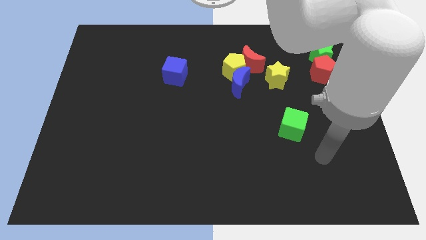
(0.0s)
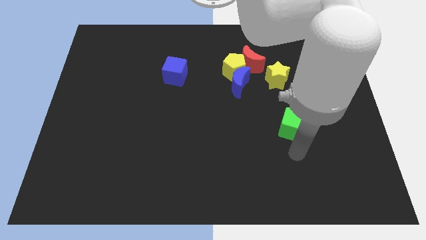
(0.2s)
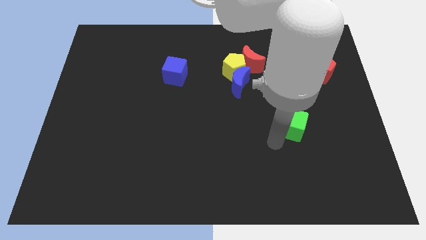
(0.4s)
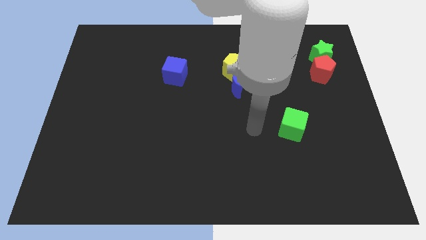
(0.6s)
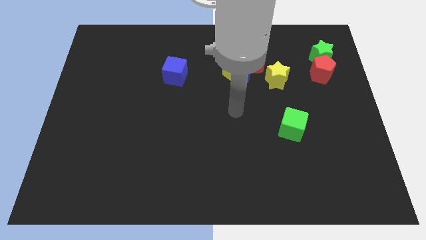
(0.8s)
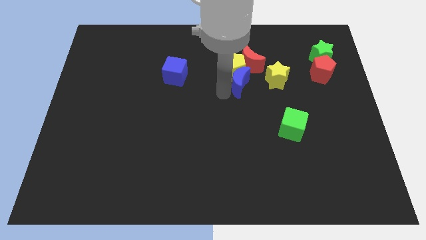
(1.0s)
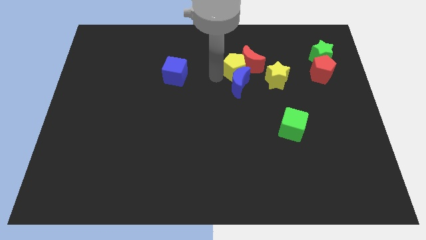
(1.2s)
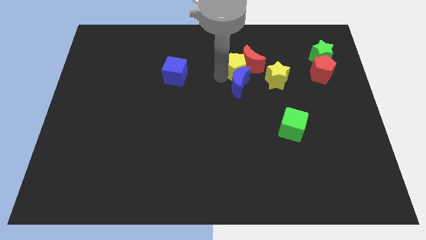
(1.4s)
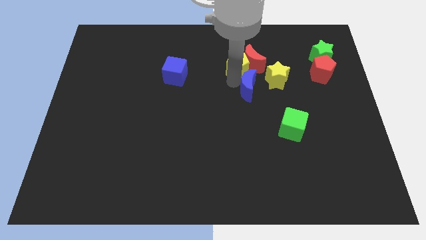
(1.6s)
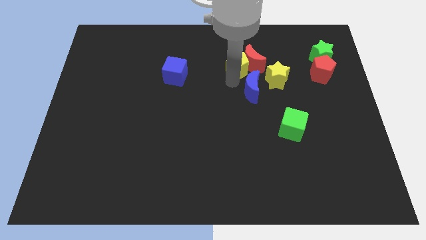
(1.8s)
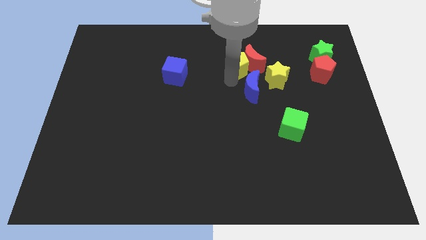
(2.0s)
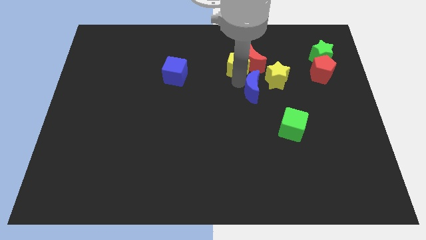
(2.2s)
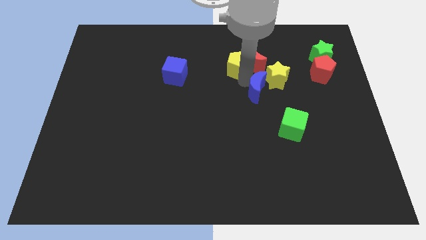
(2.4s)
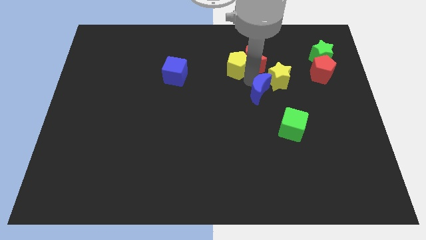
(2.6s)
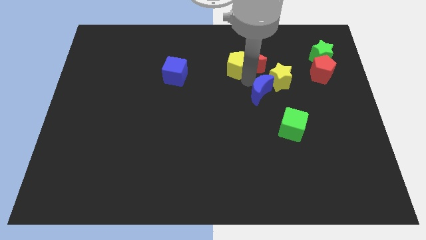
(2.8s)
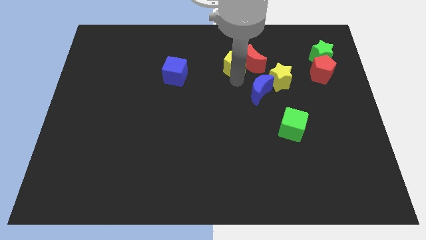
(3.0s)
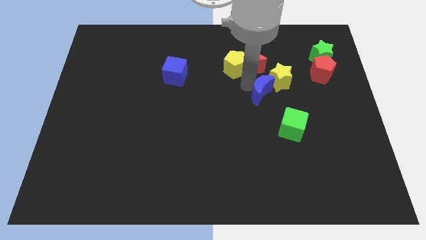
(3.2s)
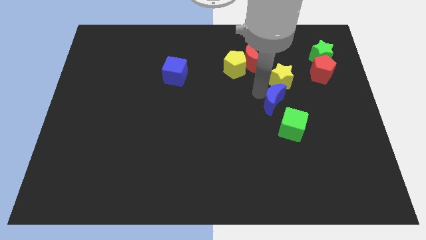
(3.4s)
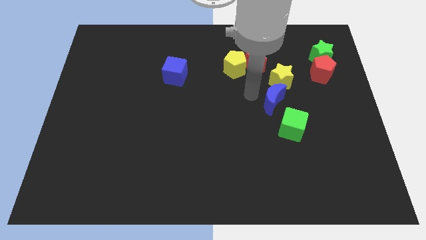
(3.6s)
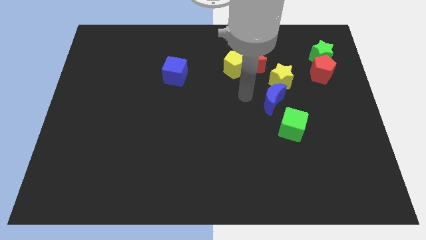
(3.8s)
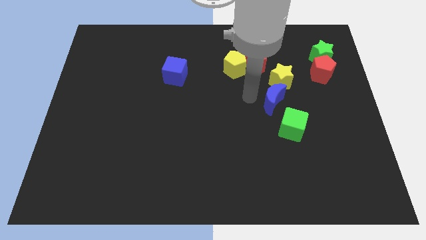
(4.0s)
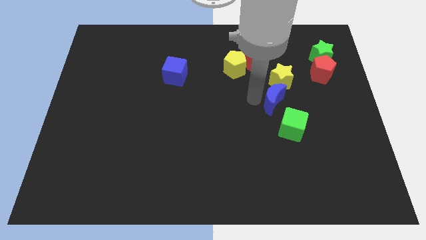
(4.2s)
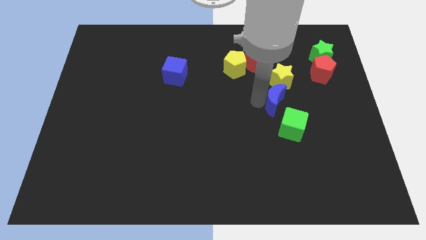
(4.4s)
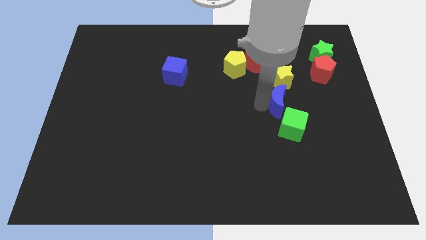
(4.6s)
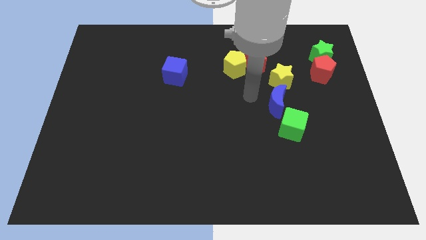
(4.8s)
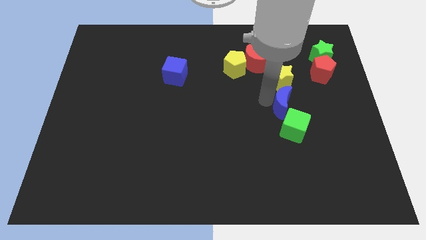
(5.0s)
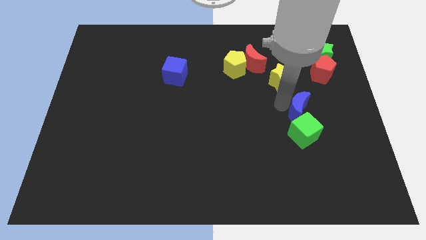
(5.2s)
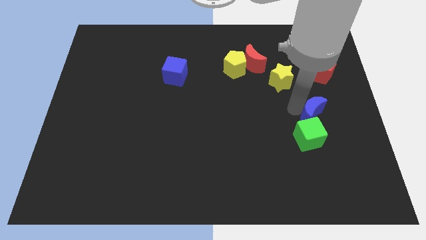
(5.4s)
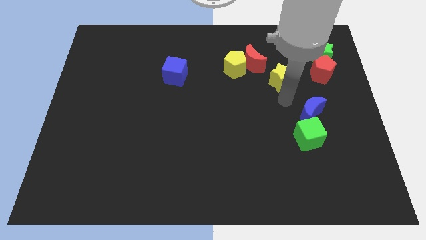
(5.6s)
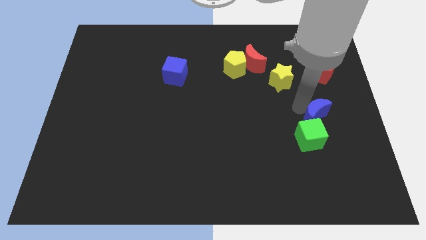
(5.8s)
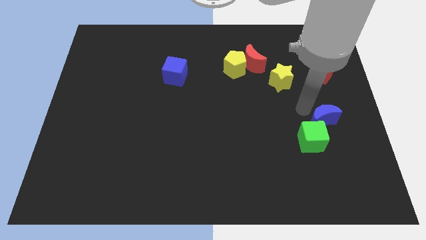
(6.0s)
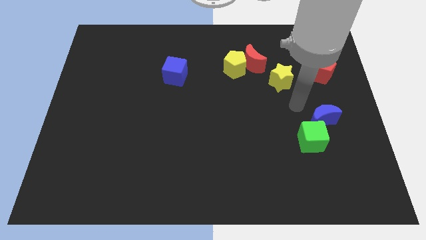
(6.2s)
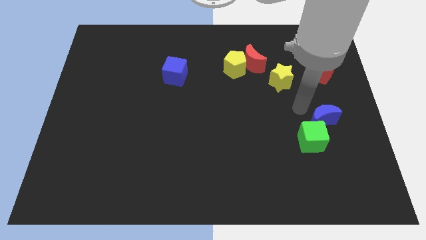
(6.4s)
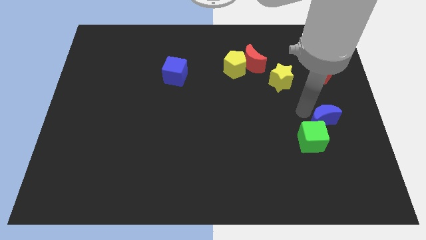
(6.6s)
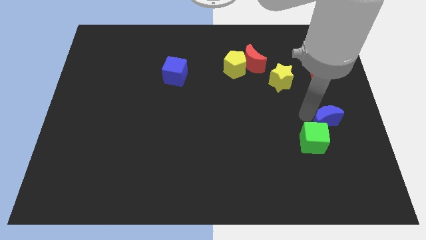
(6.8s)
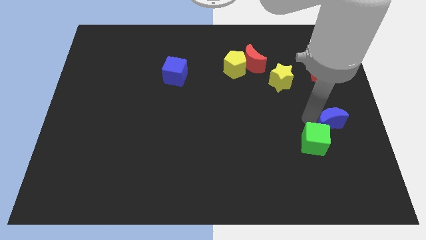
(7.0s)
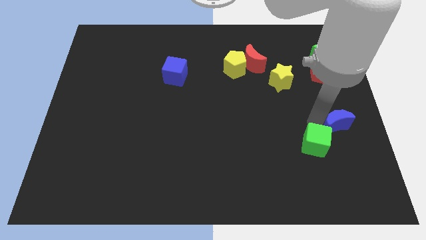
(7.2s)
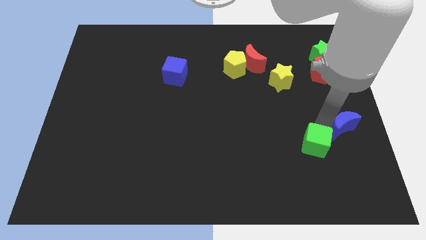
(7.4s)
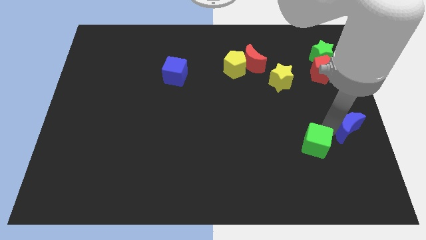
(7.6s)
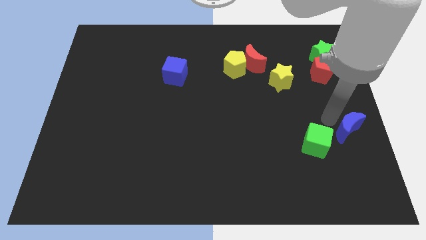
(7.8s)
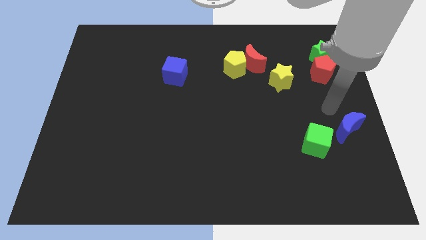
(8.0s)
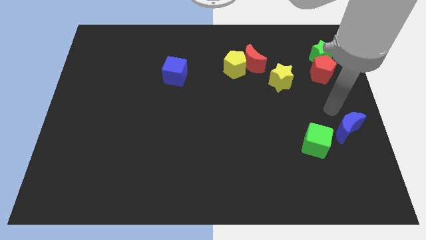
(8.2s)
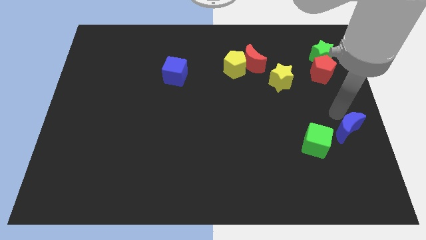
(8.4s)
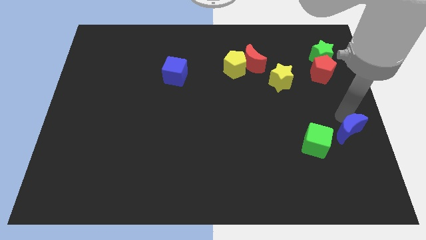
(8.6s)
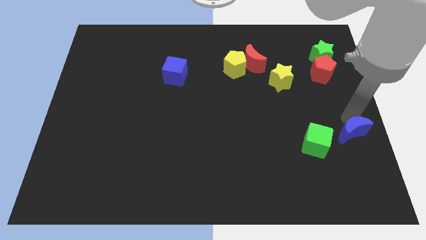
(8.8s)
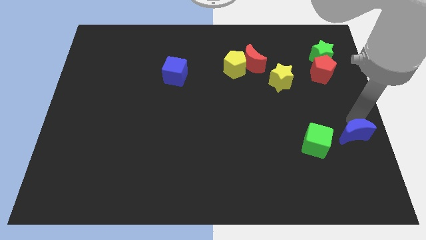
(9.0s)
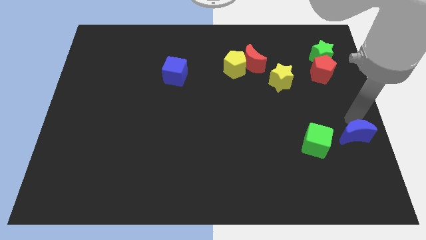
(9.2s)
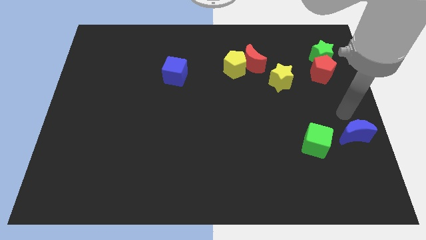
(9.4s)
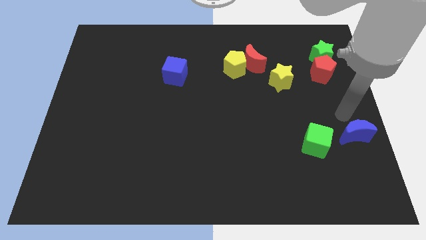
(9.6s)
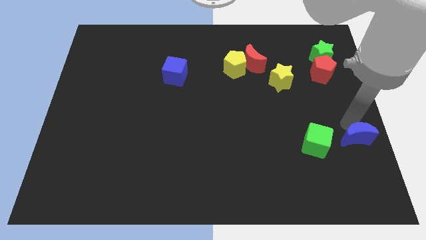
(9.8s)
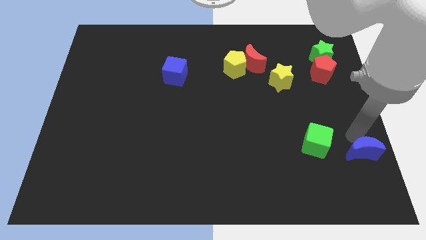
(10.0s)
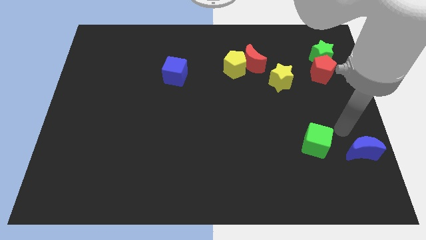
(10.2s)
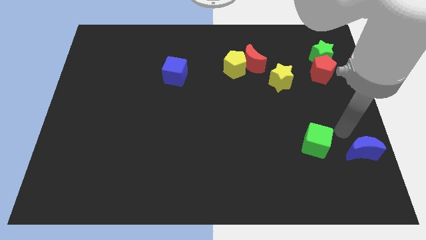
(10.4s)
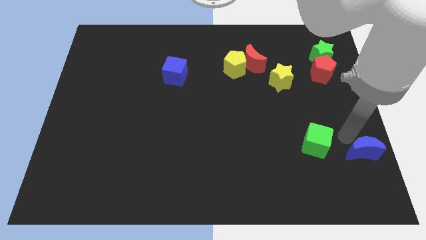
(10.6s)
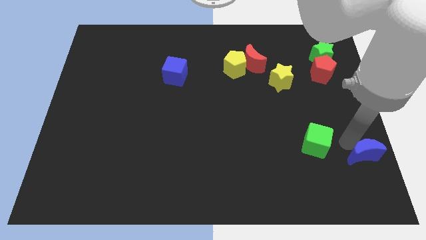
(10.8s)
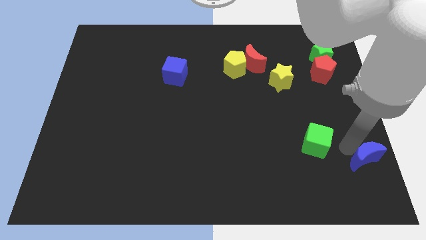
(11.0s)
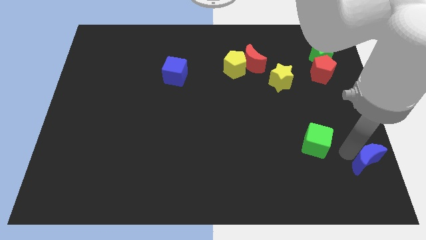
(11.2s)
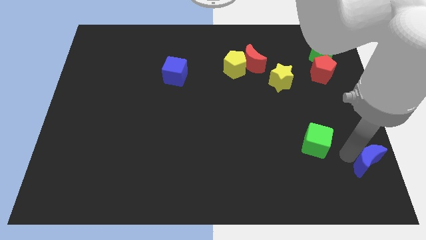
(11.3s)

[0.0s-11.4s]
slide the blue moon to the bottom right of the board

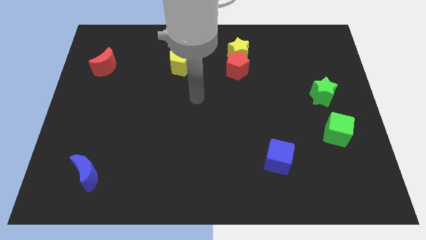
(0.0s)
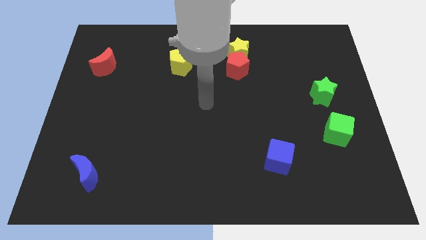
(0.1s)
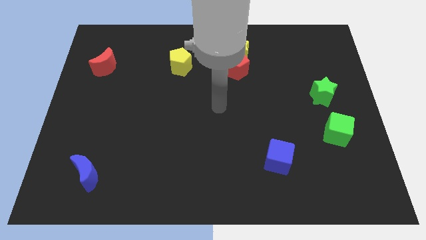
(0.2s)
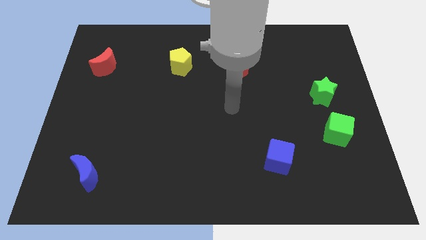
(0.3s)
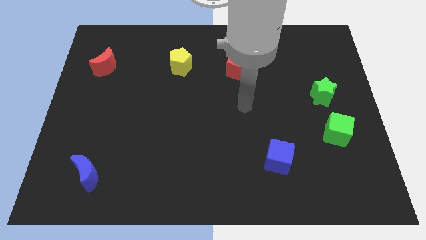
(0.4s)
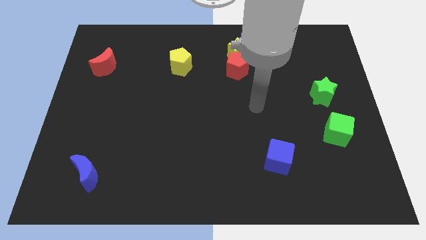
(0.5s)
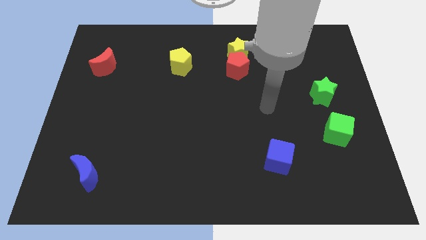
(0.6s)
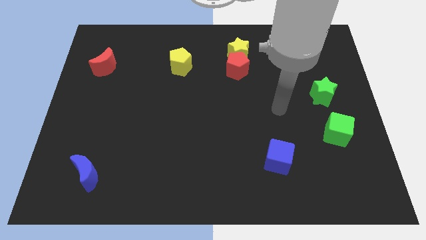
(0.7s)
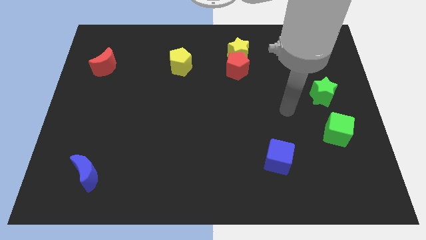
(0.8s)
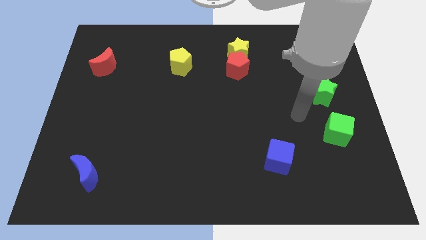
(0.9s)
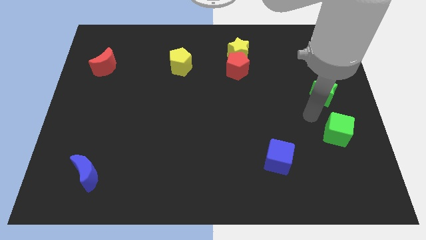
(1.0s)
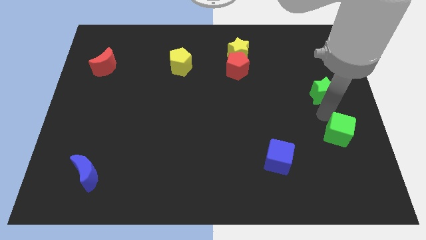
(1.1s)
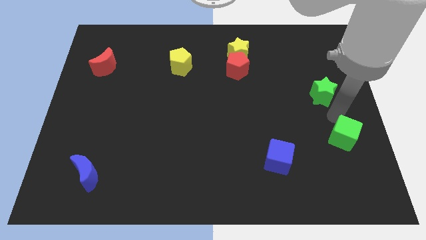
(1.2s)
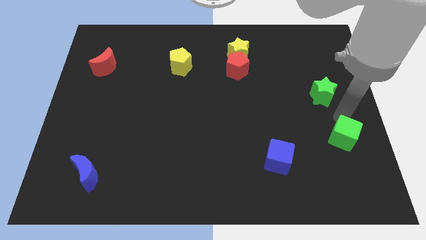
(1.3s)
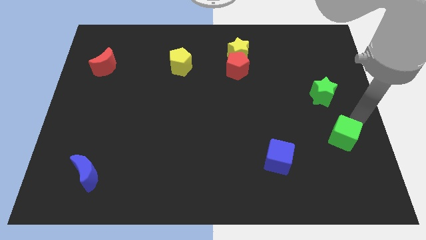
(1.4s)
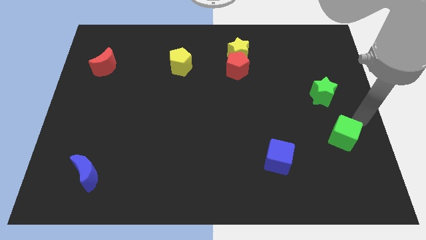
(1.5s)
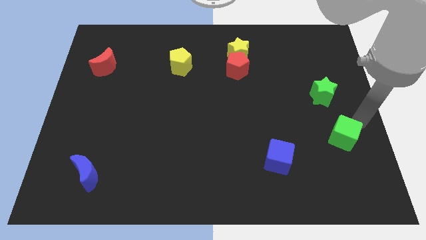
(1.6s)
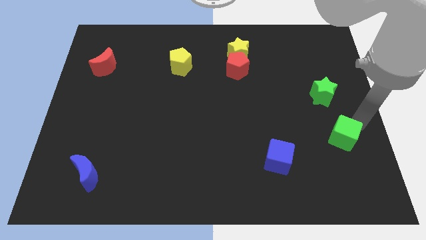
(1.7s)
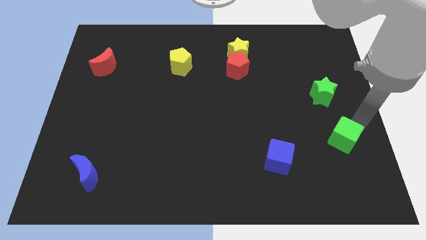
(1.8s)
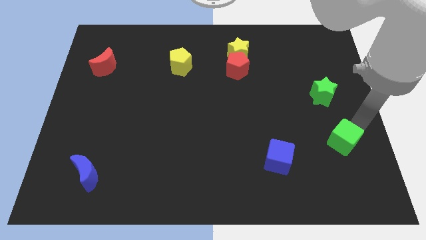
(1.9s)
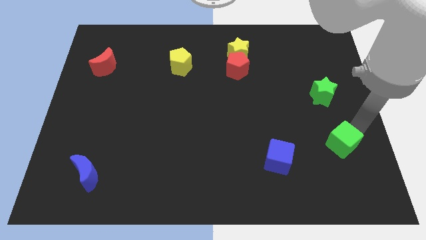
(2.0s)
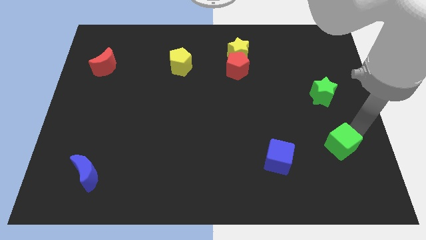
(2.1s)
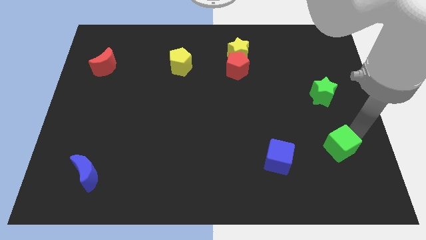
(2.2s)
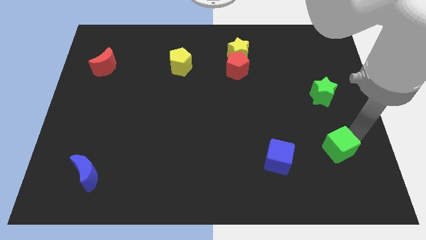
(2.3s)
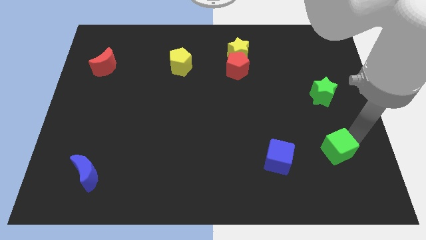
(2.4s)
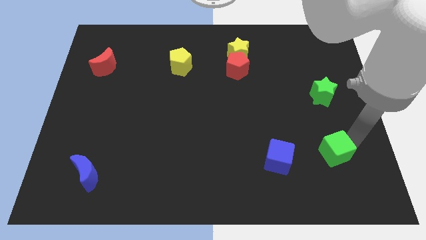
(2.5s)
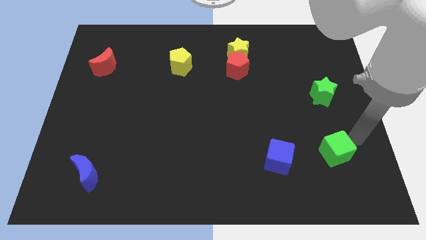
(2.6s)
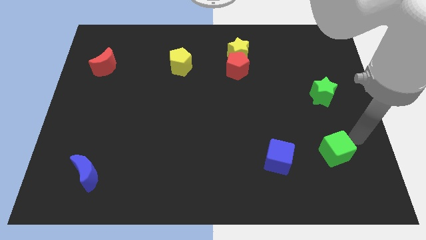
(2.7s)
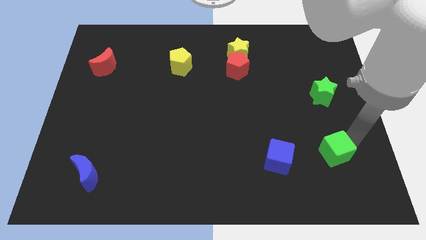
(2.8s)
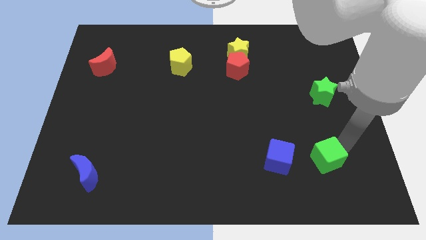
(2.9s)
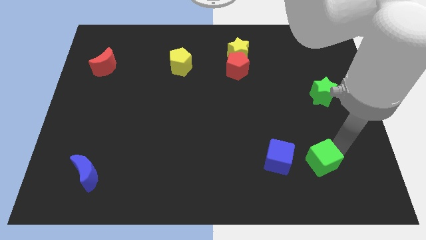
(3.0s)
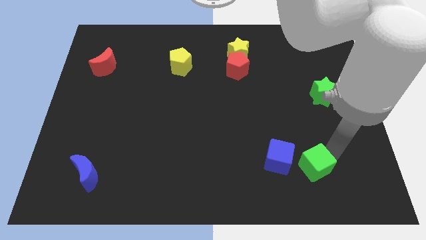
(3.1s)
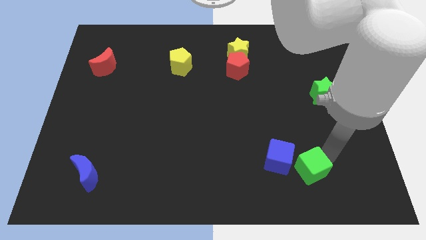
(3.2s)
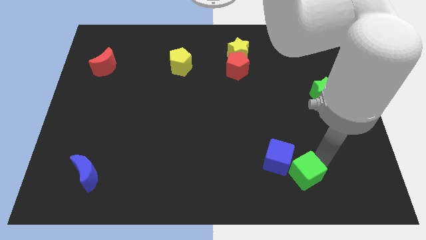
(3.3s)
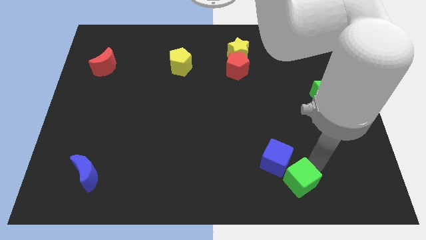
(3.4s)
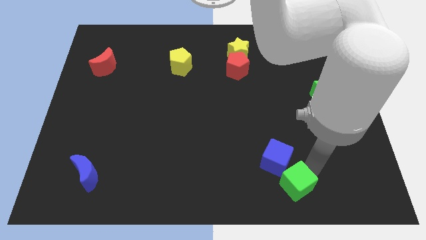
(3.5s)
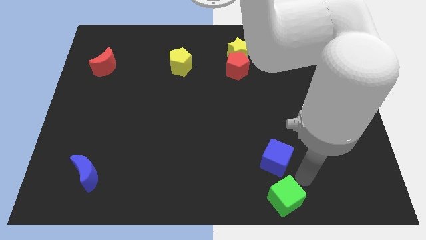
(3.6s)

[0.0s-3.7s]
move the green cube to the bottom side
